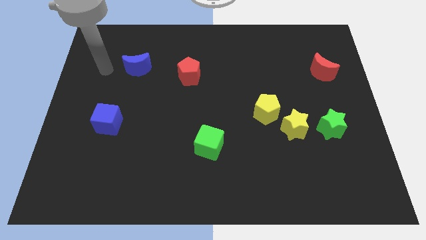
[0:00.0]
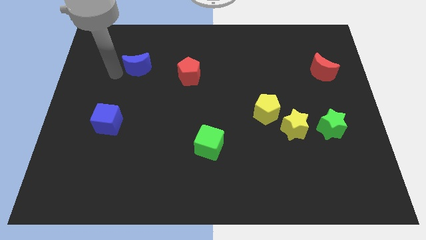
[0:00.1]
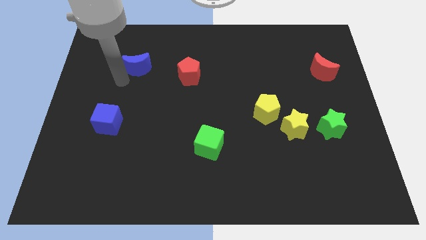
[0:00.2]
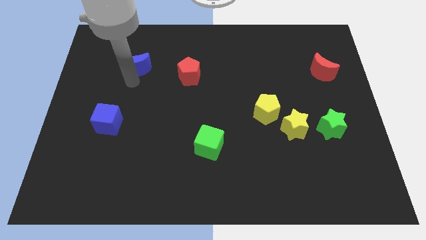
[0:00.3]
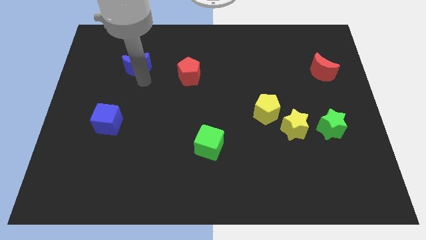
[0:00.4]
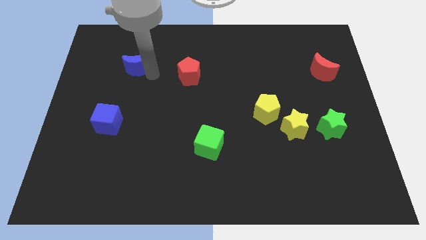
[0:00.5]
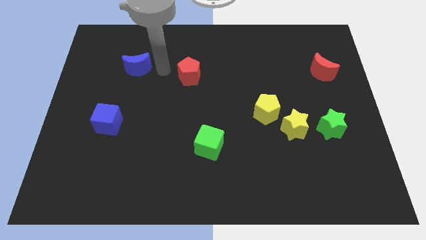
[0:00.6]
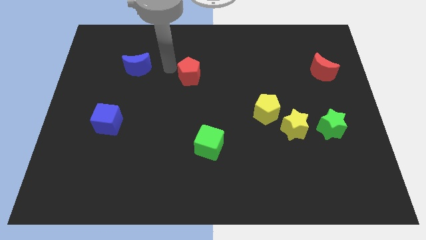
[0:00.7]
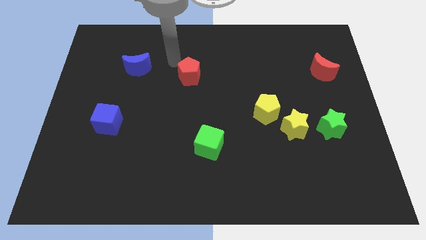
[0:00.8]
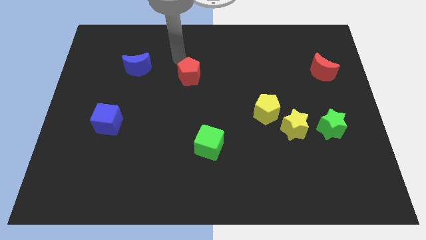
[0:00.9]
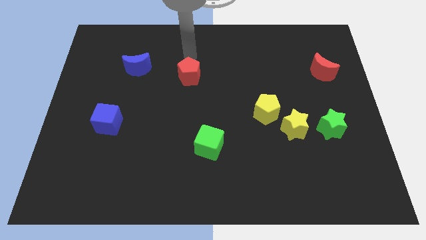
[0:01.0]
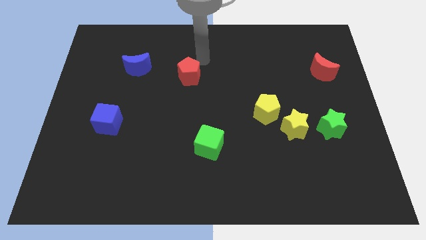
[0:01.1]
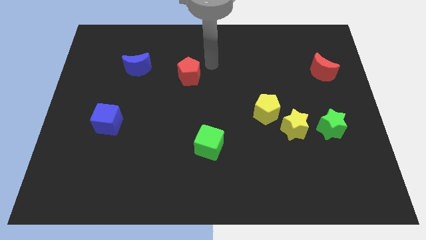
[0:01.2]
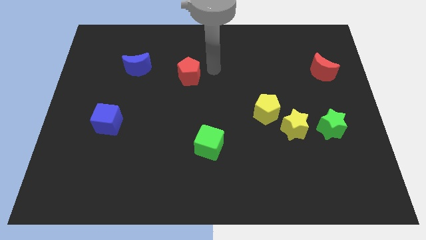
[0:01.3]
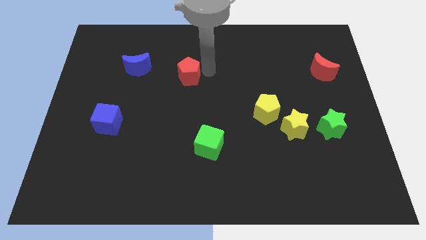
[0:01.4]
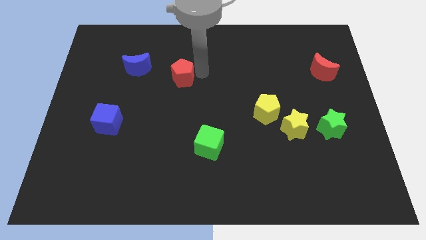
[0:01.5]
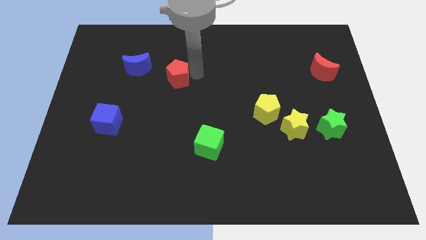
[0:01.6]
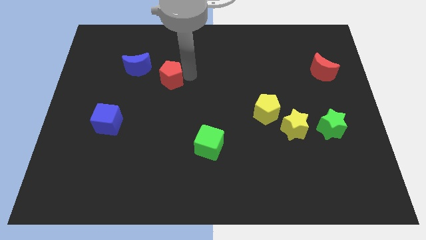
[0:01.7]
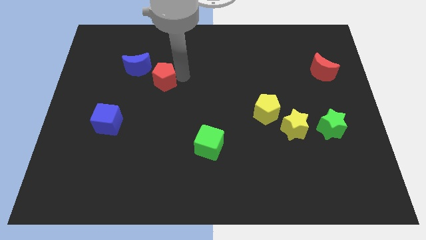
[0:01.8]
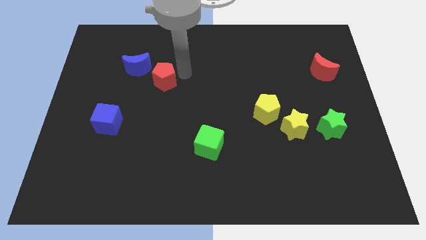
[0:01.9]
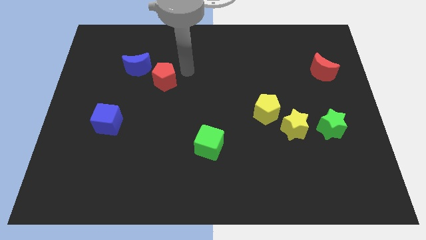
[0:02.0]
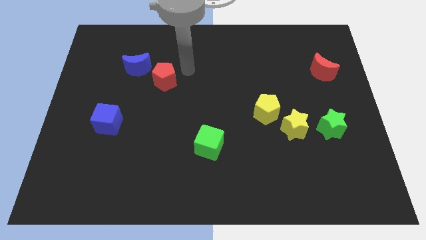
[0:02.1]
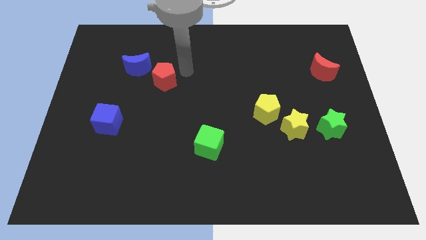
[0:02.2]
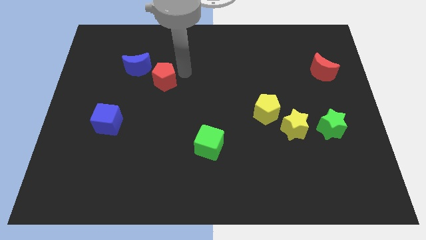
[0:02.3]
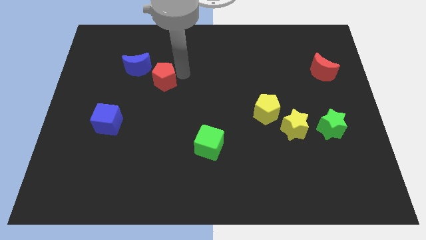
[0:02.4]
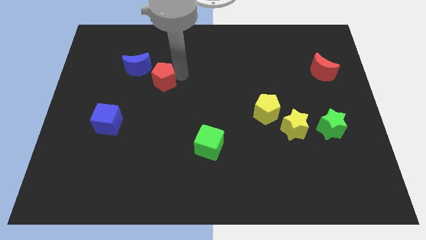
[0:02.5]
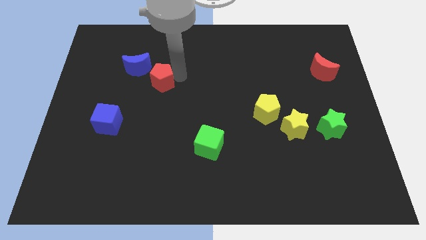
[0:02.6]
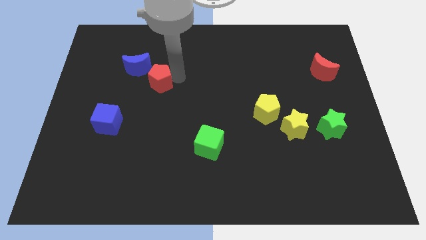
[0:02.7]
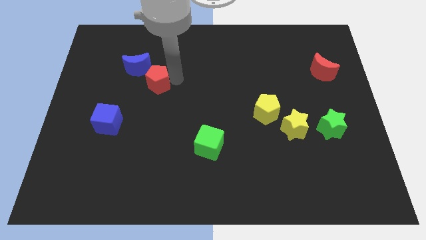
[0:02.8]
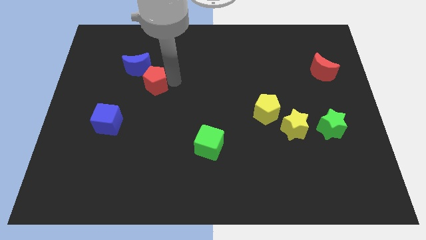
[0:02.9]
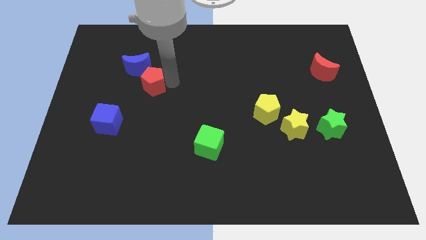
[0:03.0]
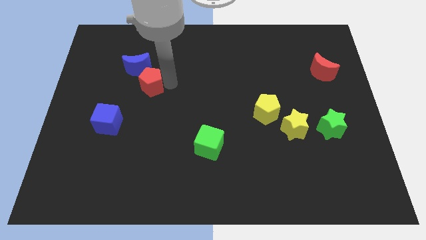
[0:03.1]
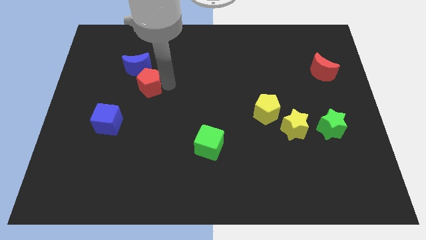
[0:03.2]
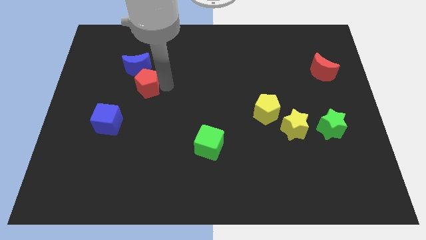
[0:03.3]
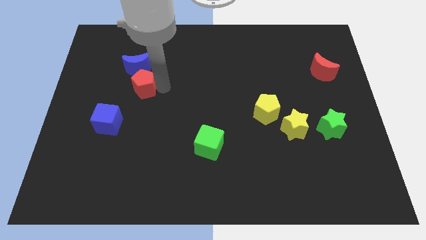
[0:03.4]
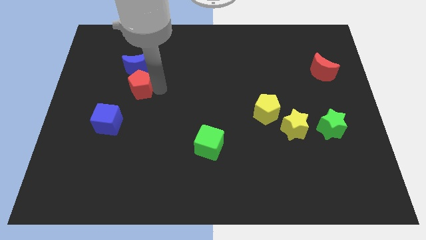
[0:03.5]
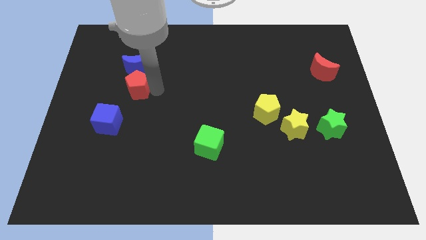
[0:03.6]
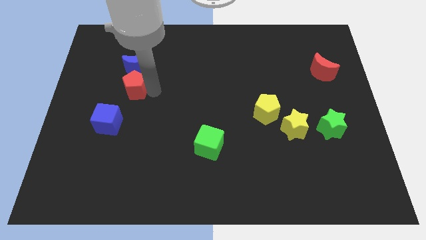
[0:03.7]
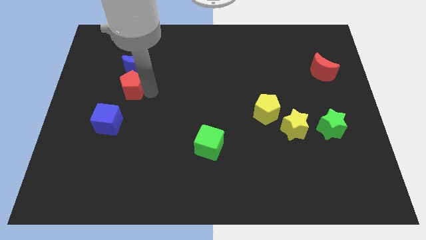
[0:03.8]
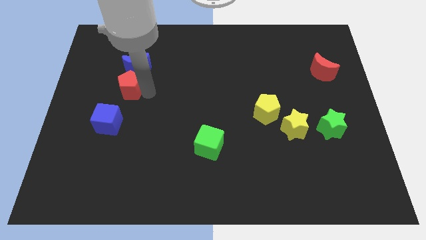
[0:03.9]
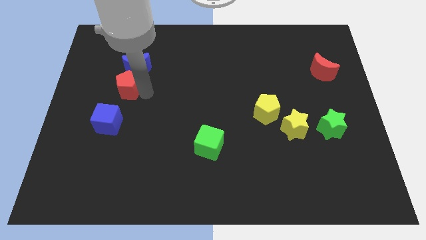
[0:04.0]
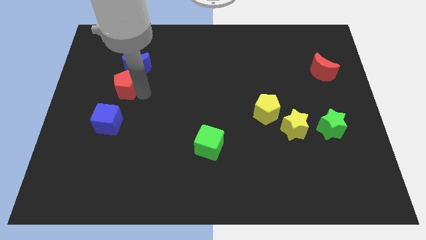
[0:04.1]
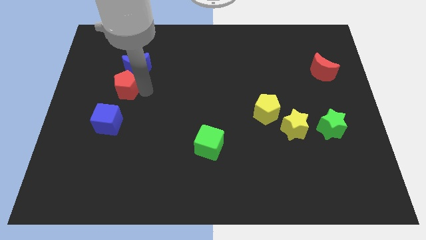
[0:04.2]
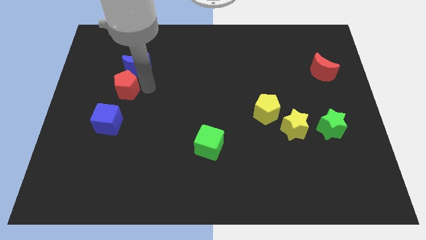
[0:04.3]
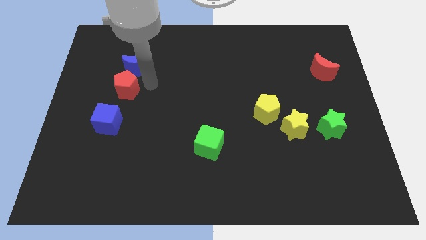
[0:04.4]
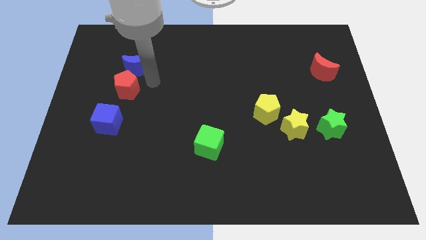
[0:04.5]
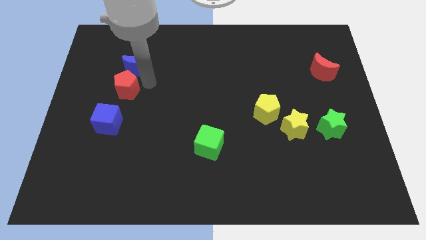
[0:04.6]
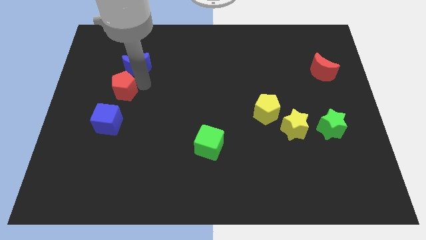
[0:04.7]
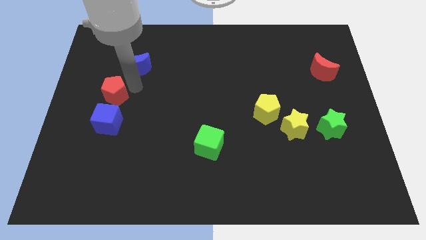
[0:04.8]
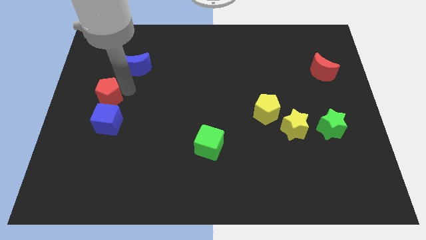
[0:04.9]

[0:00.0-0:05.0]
push the red pentagon to the left side of the board
